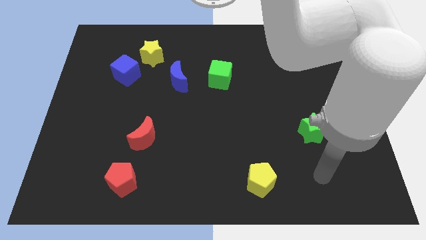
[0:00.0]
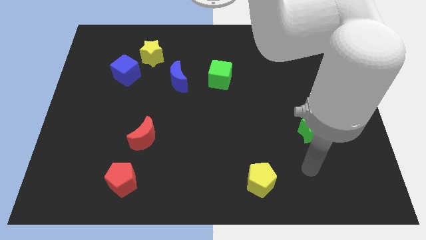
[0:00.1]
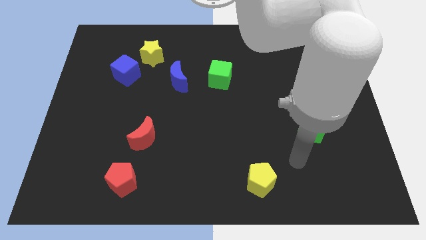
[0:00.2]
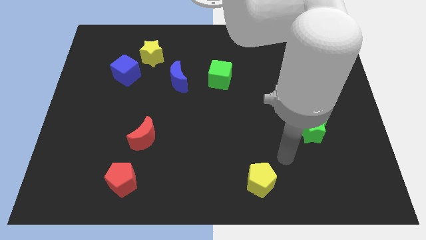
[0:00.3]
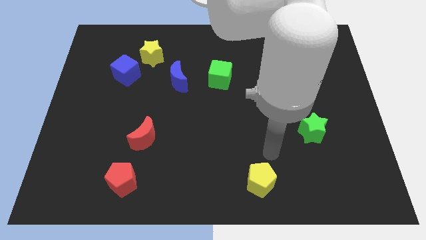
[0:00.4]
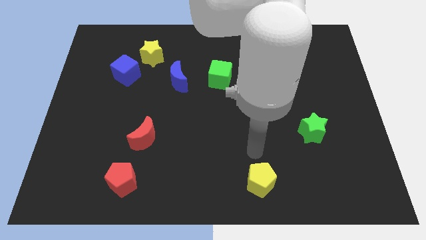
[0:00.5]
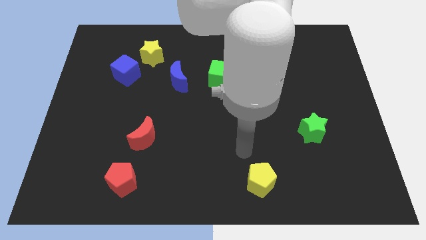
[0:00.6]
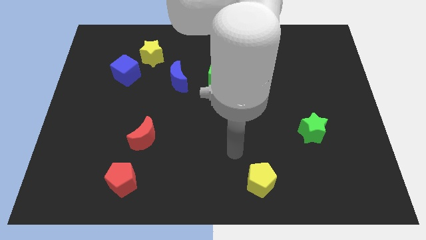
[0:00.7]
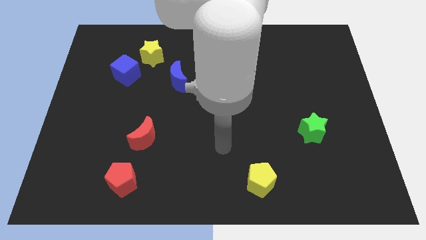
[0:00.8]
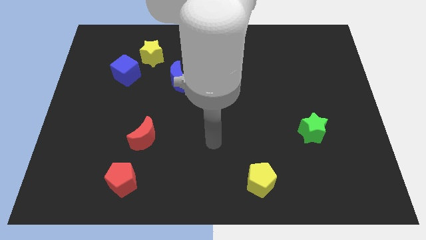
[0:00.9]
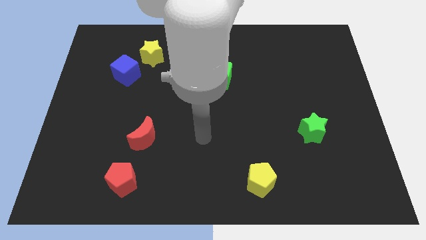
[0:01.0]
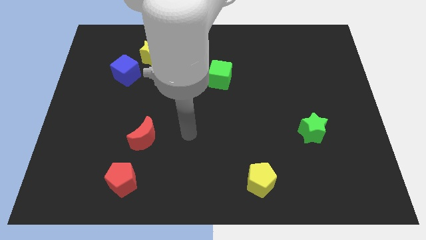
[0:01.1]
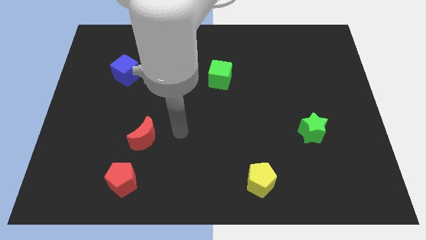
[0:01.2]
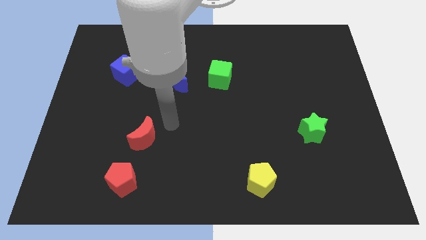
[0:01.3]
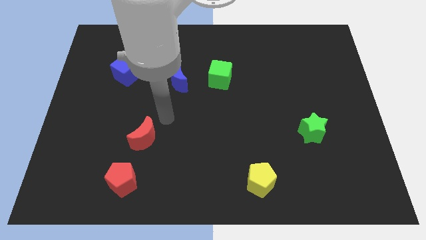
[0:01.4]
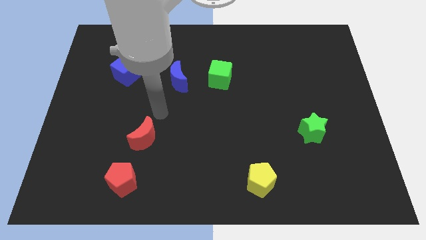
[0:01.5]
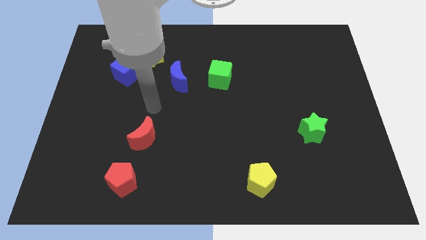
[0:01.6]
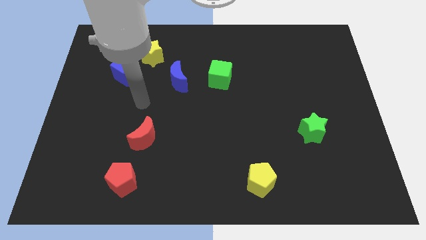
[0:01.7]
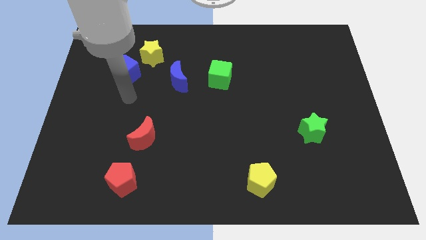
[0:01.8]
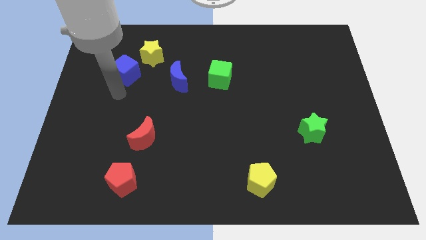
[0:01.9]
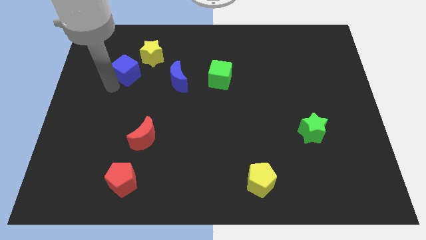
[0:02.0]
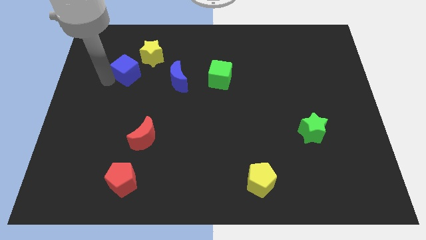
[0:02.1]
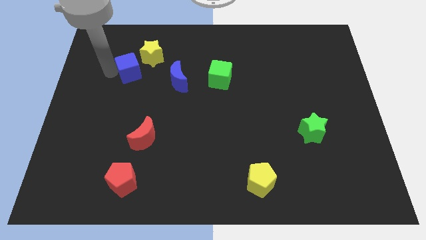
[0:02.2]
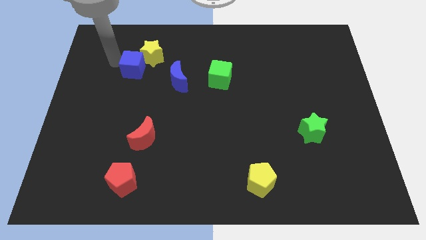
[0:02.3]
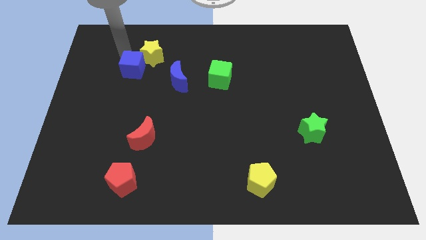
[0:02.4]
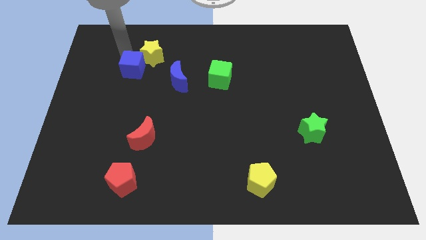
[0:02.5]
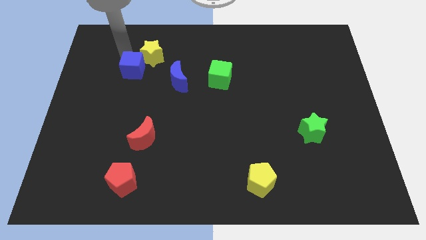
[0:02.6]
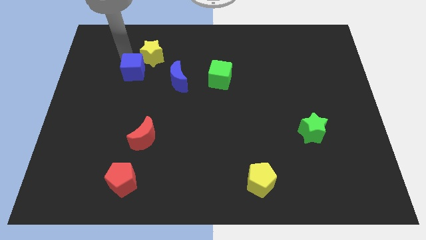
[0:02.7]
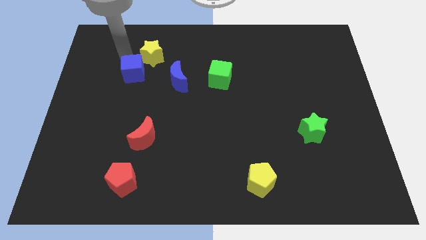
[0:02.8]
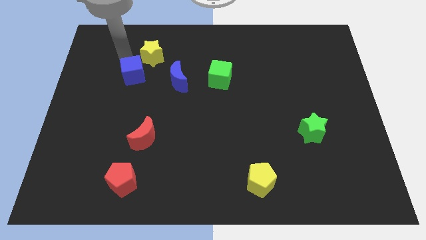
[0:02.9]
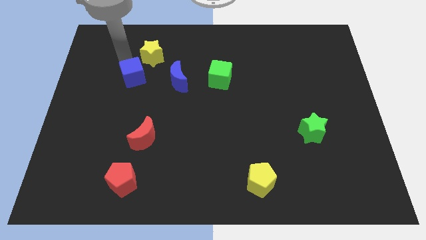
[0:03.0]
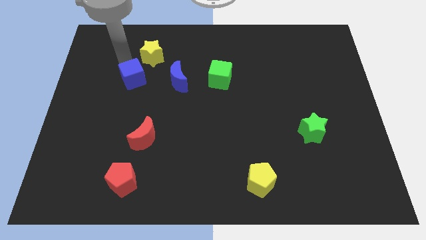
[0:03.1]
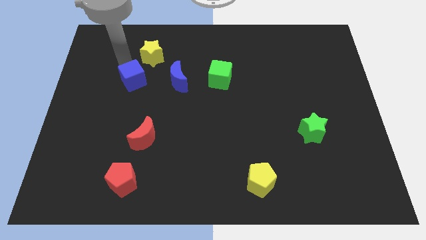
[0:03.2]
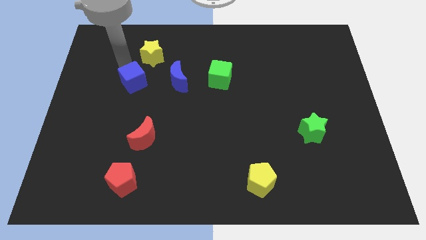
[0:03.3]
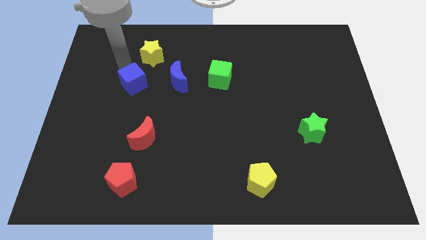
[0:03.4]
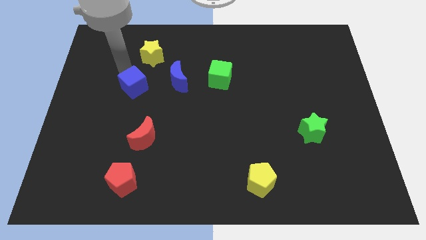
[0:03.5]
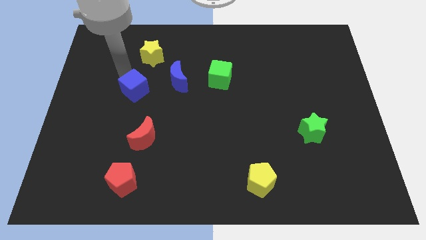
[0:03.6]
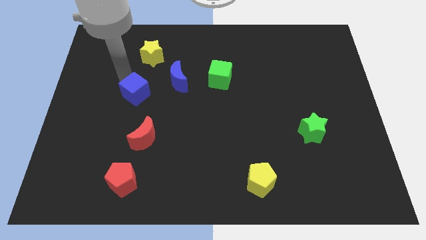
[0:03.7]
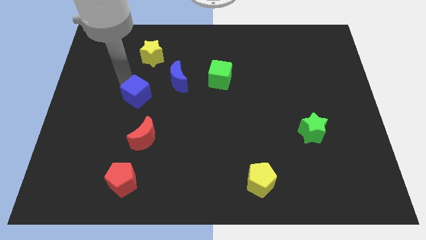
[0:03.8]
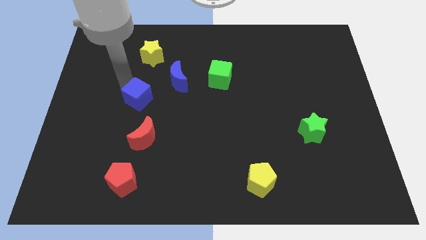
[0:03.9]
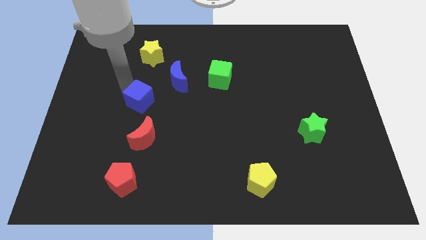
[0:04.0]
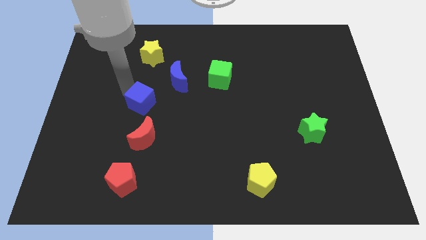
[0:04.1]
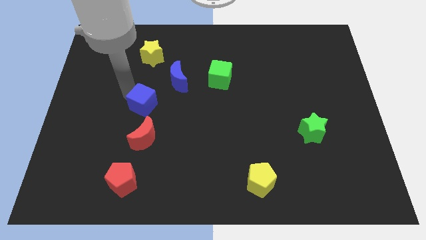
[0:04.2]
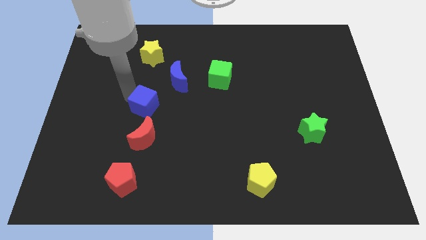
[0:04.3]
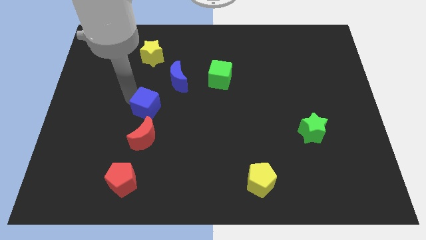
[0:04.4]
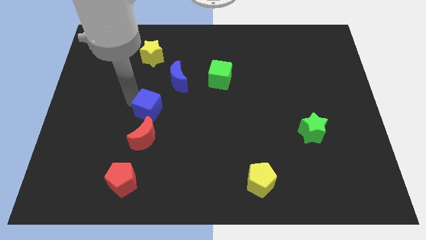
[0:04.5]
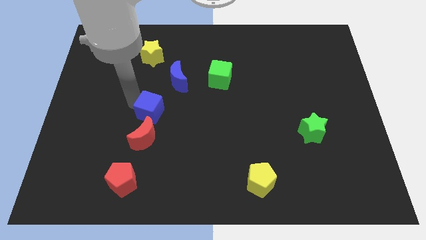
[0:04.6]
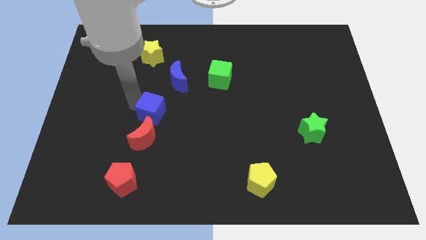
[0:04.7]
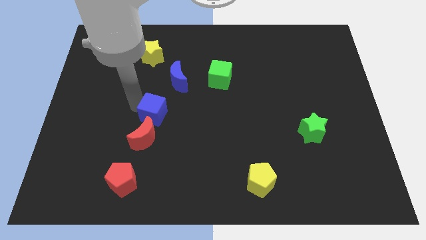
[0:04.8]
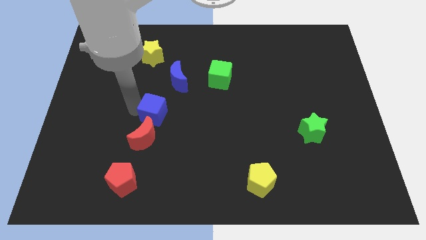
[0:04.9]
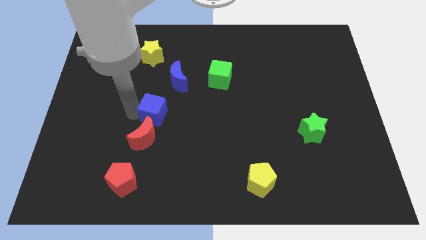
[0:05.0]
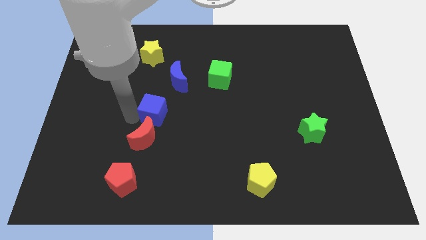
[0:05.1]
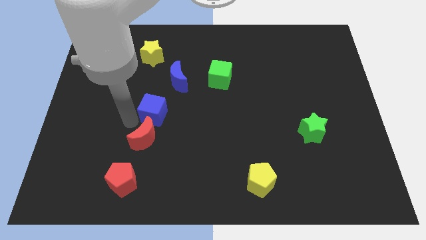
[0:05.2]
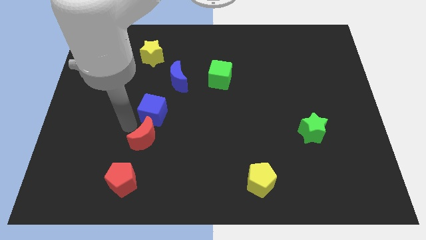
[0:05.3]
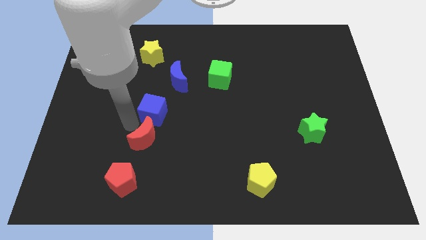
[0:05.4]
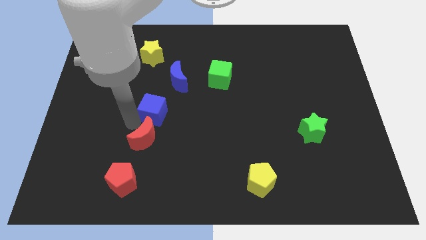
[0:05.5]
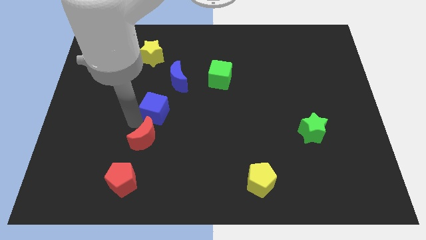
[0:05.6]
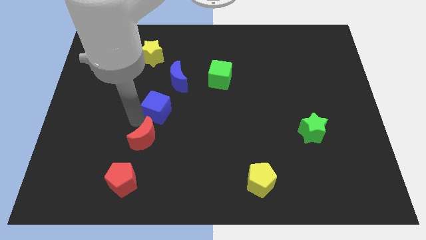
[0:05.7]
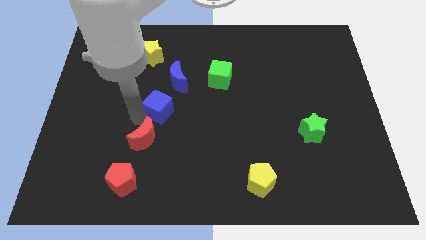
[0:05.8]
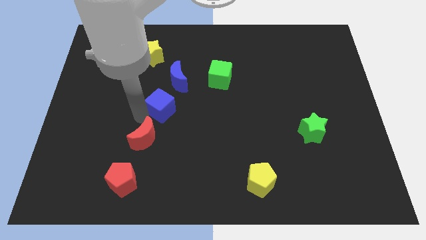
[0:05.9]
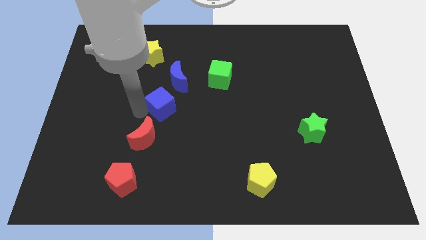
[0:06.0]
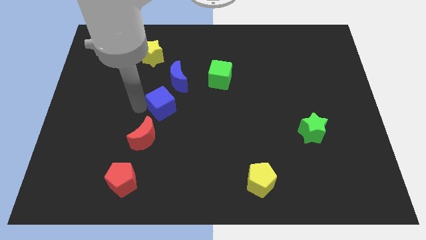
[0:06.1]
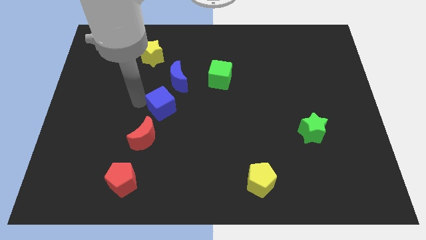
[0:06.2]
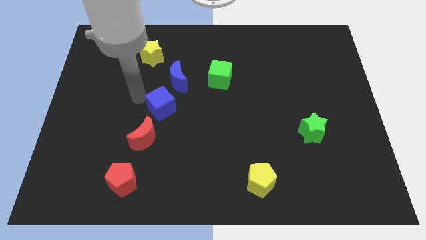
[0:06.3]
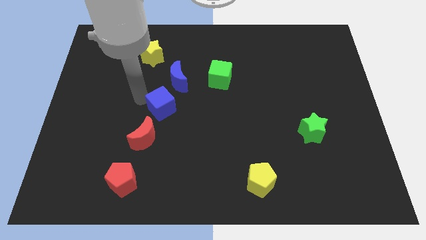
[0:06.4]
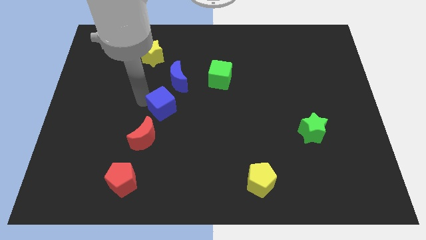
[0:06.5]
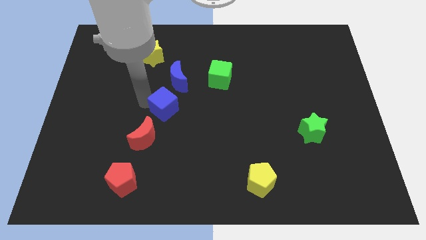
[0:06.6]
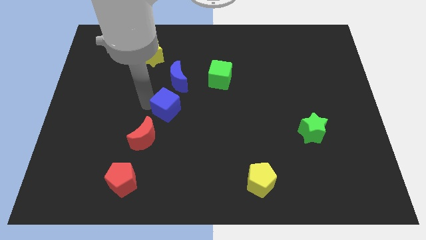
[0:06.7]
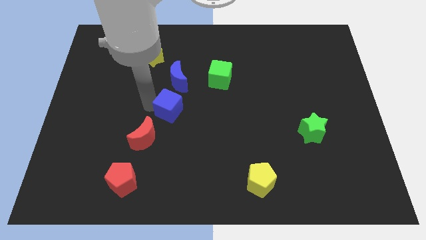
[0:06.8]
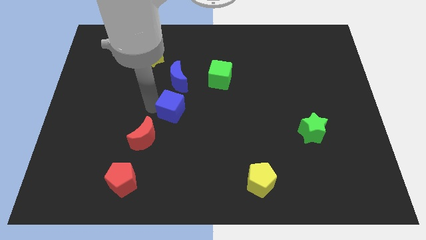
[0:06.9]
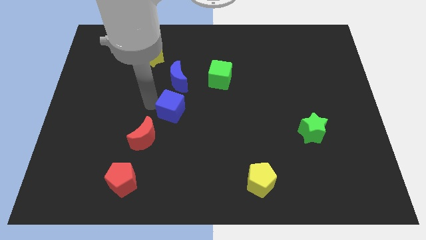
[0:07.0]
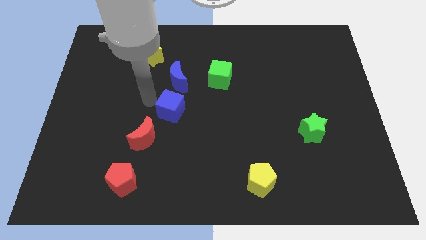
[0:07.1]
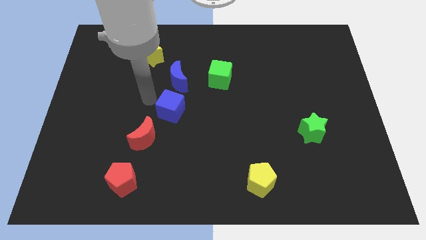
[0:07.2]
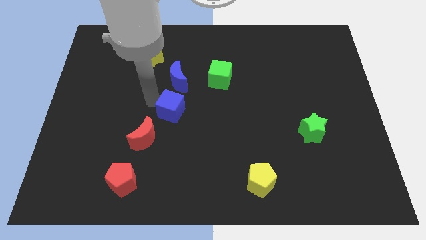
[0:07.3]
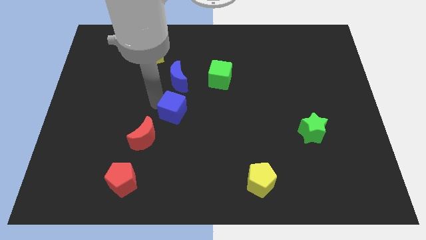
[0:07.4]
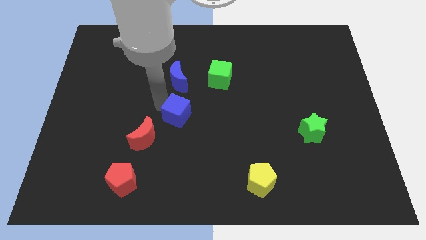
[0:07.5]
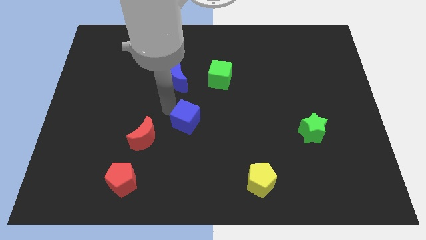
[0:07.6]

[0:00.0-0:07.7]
move the blue cube diagonally downwards and to the right
